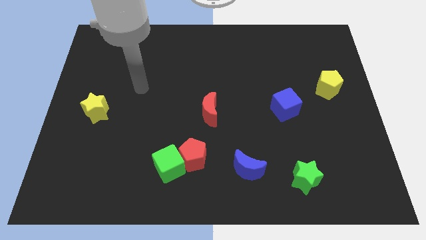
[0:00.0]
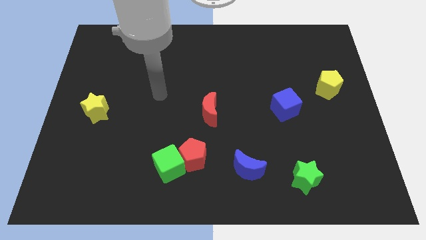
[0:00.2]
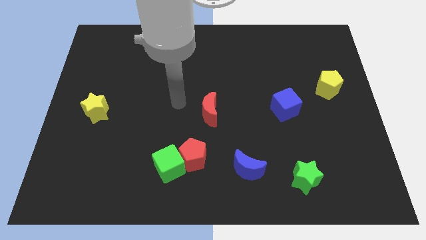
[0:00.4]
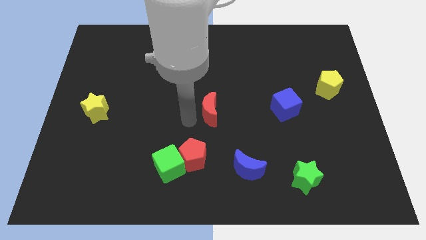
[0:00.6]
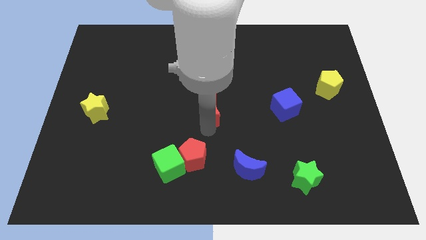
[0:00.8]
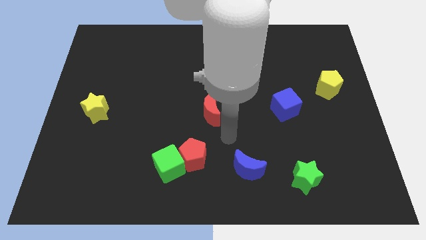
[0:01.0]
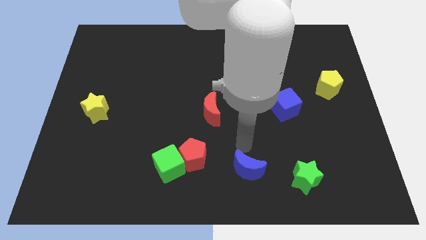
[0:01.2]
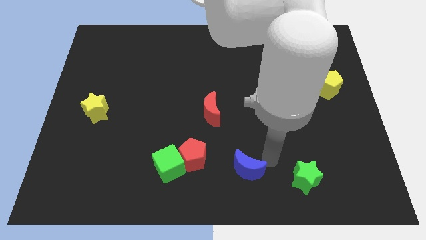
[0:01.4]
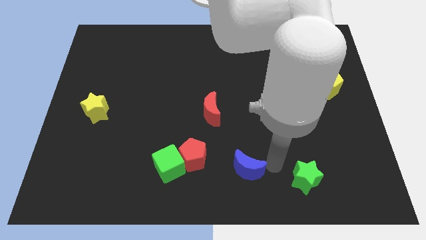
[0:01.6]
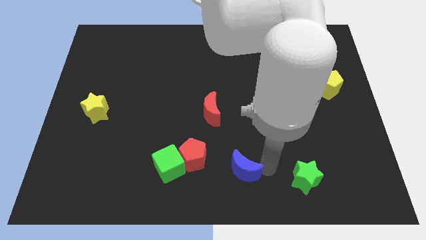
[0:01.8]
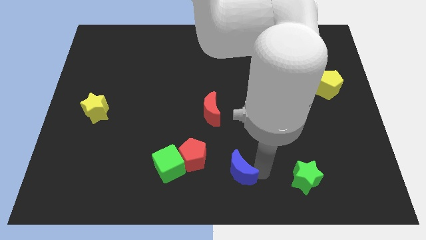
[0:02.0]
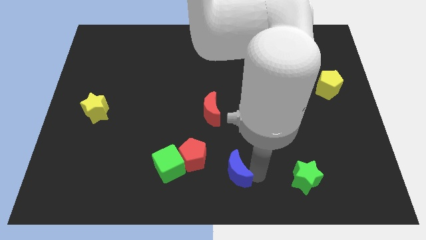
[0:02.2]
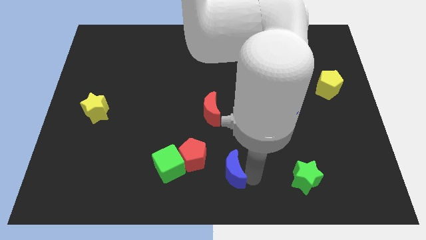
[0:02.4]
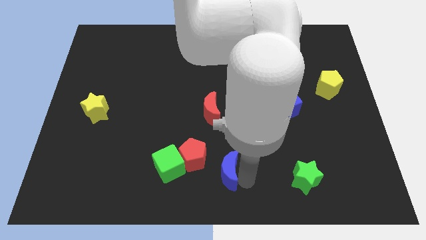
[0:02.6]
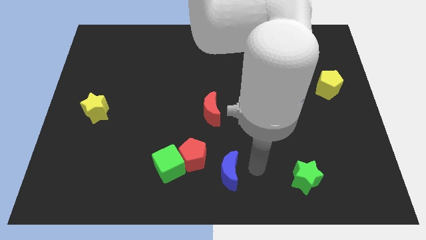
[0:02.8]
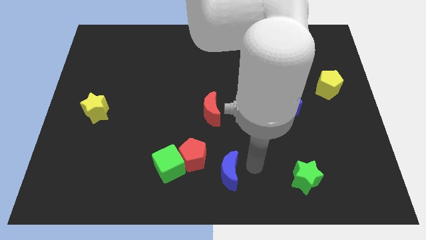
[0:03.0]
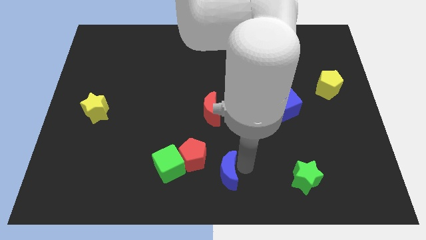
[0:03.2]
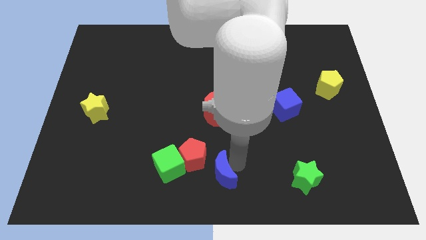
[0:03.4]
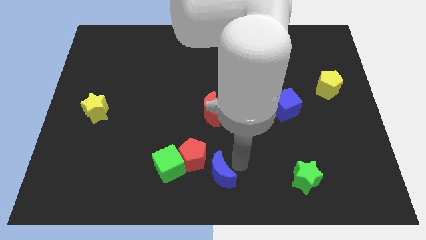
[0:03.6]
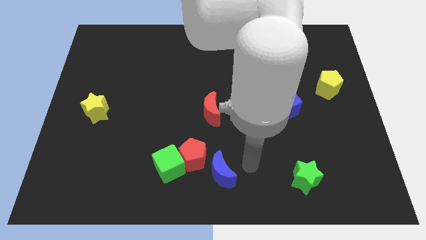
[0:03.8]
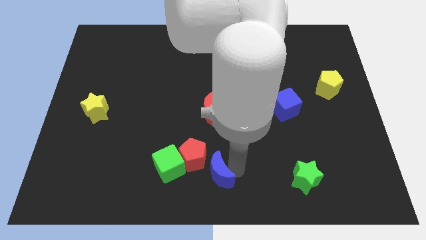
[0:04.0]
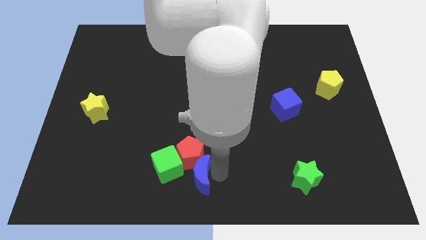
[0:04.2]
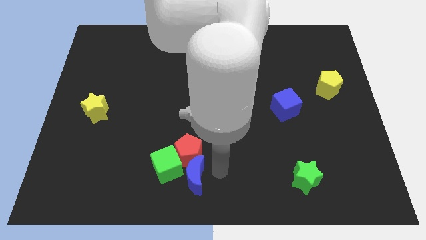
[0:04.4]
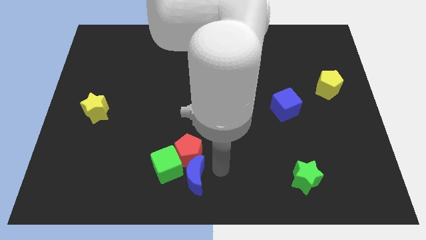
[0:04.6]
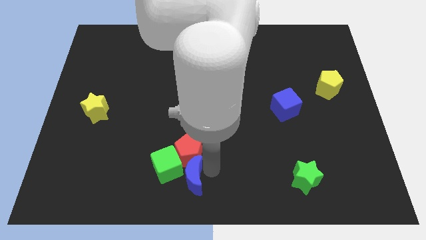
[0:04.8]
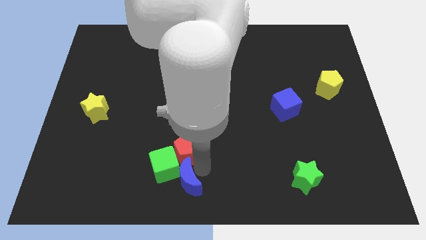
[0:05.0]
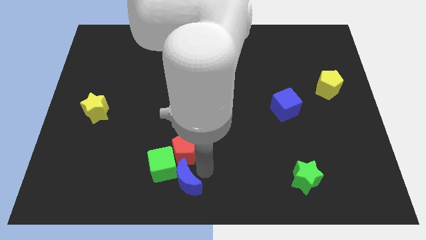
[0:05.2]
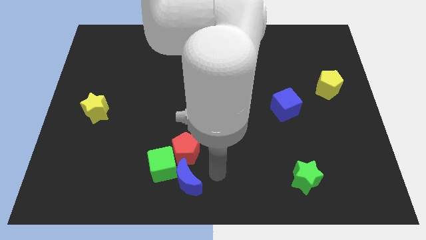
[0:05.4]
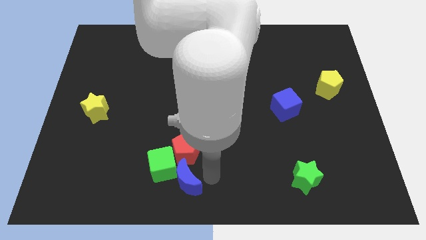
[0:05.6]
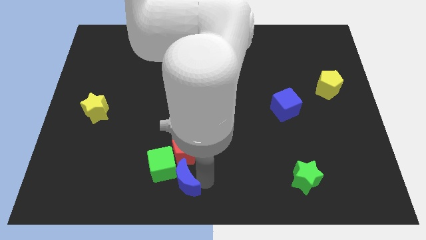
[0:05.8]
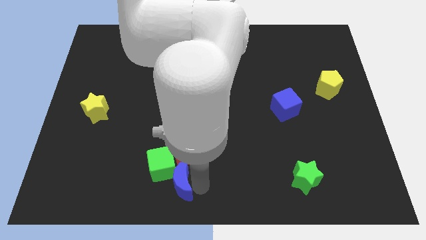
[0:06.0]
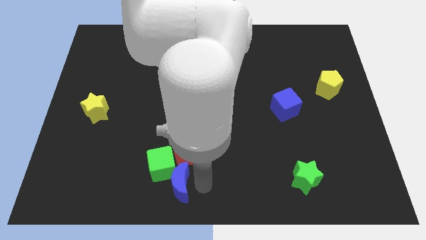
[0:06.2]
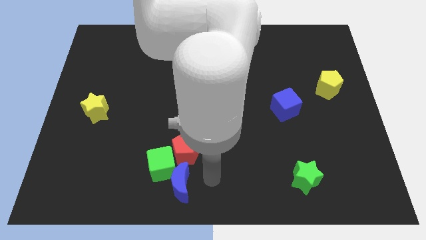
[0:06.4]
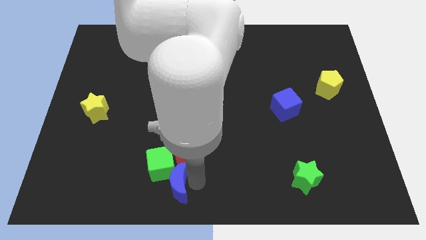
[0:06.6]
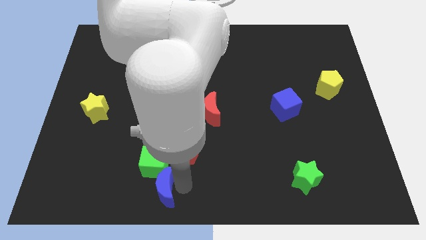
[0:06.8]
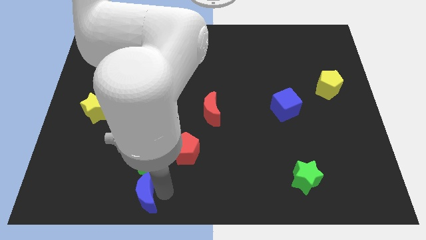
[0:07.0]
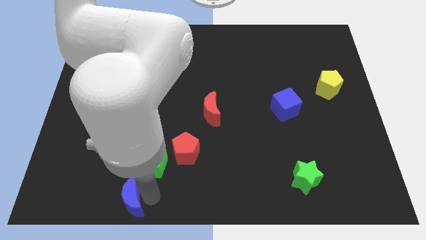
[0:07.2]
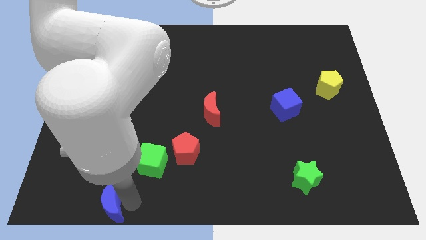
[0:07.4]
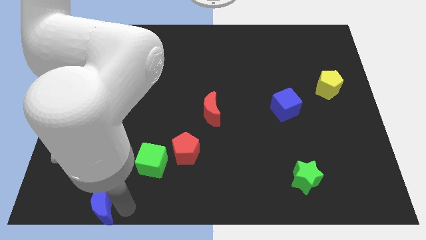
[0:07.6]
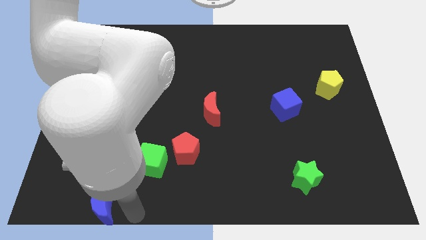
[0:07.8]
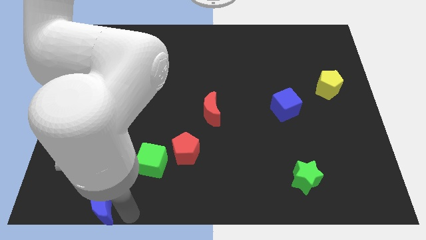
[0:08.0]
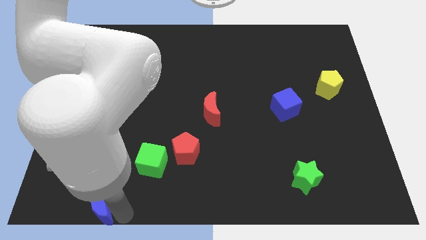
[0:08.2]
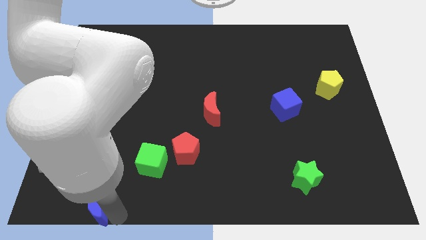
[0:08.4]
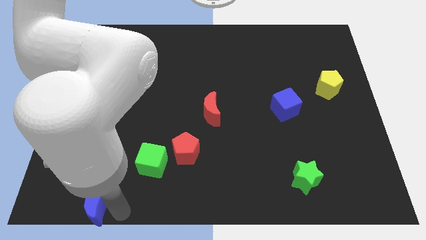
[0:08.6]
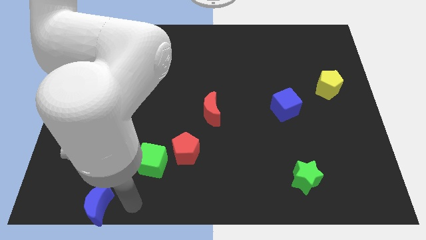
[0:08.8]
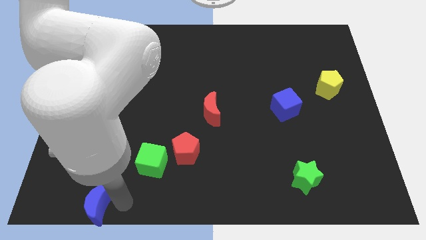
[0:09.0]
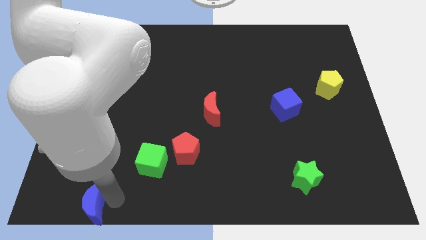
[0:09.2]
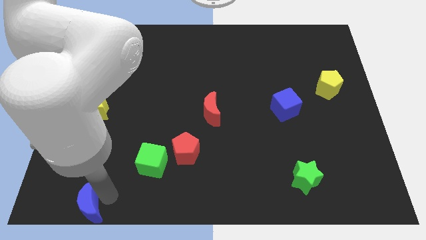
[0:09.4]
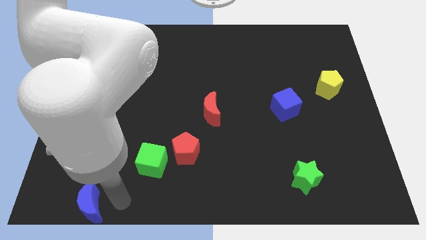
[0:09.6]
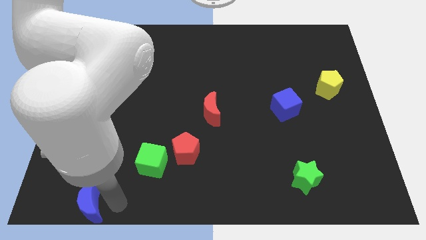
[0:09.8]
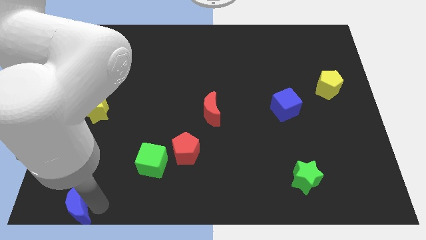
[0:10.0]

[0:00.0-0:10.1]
push the blue moon to the lower left corner

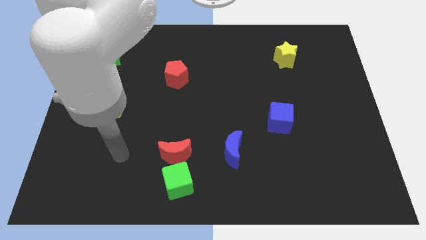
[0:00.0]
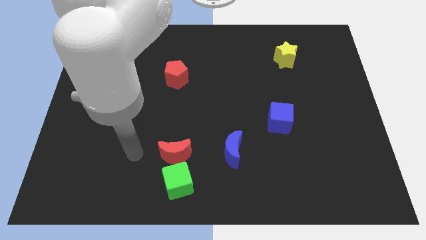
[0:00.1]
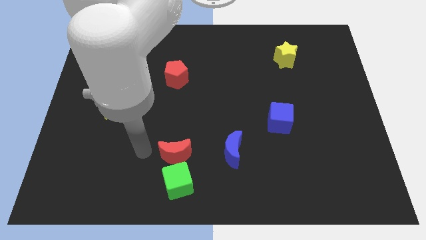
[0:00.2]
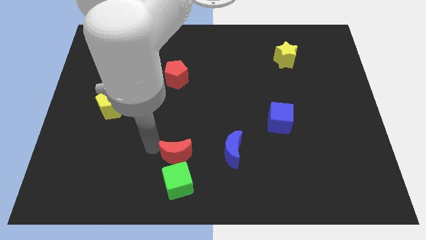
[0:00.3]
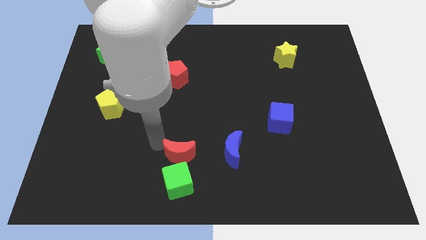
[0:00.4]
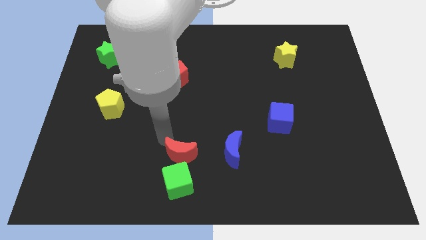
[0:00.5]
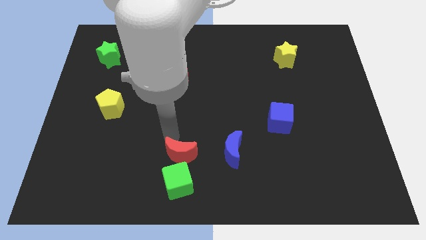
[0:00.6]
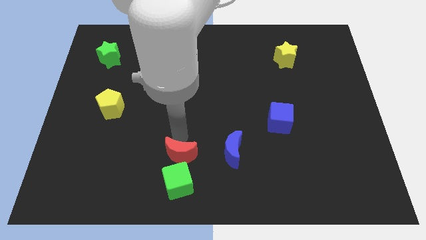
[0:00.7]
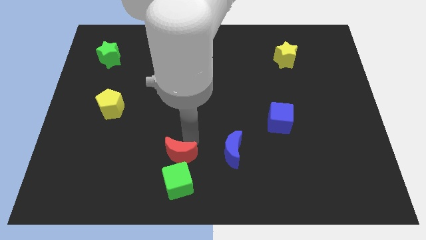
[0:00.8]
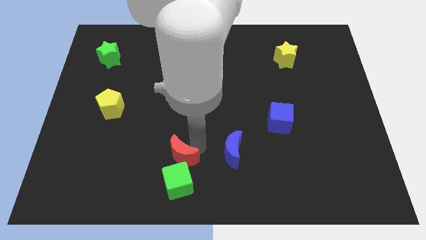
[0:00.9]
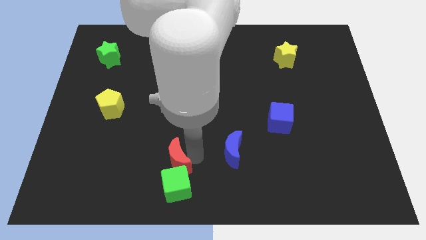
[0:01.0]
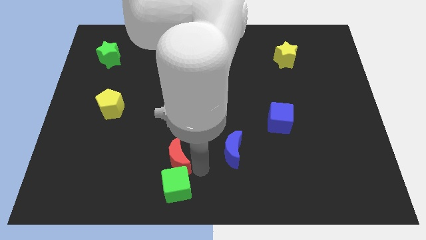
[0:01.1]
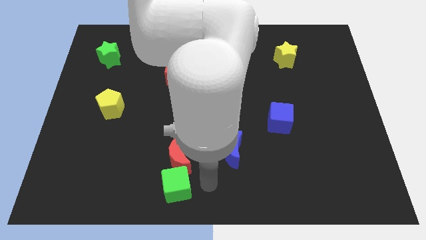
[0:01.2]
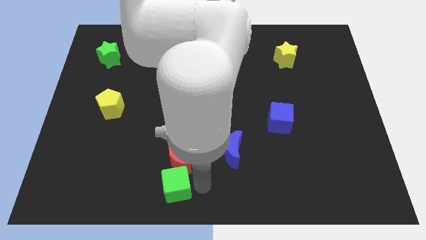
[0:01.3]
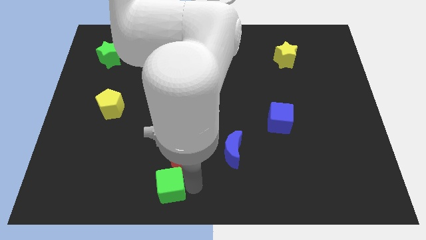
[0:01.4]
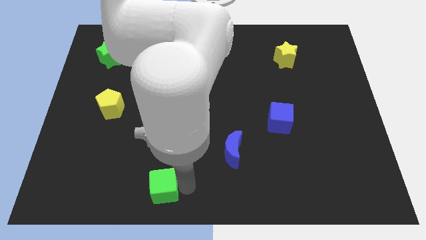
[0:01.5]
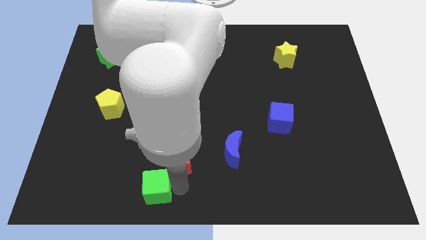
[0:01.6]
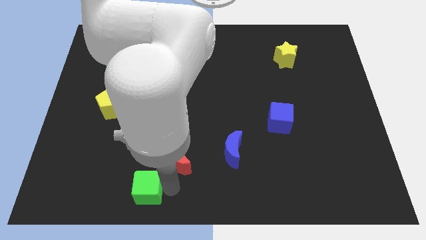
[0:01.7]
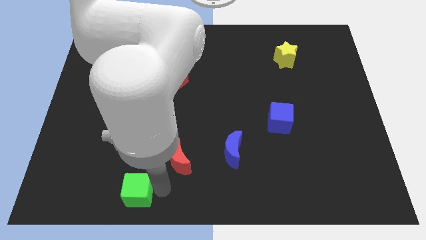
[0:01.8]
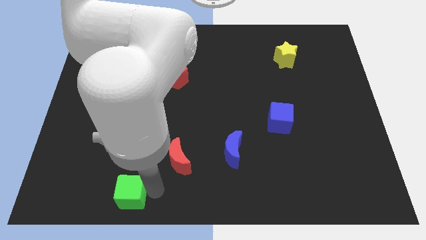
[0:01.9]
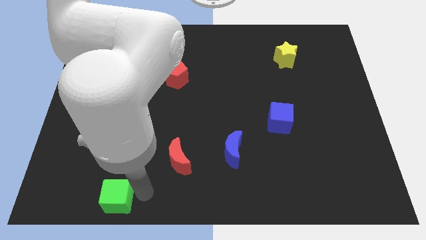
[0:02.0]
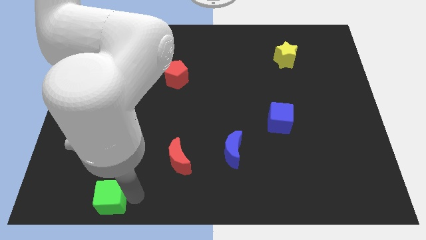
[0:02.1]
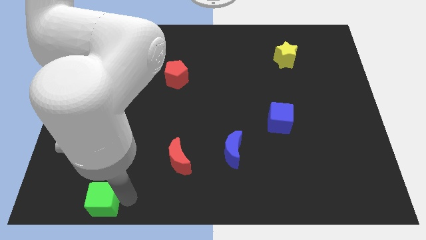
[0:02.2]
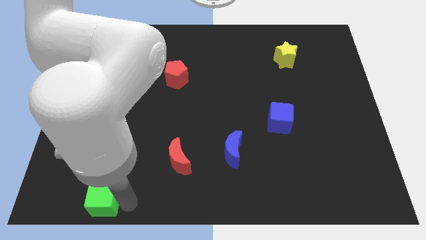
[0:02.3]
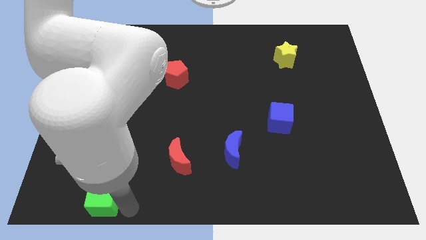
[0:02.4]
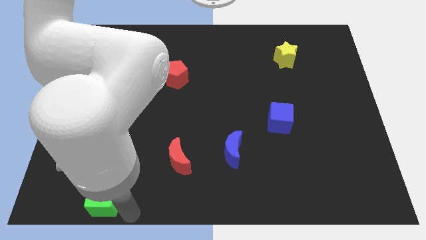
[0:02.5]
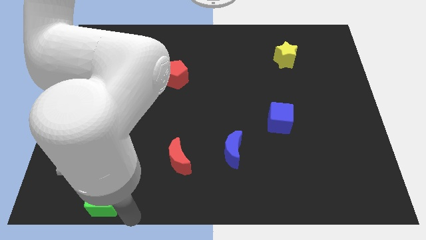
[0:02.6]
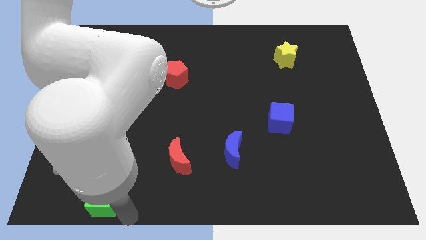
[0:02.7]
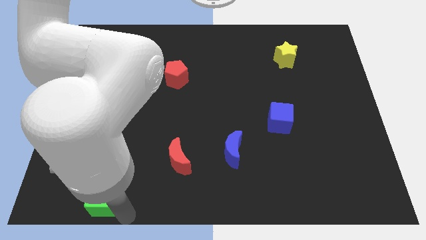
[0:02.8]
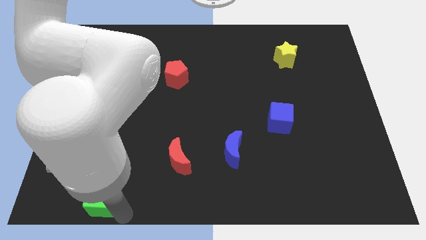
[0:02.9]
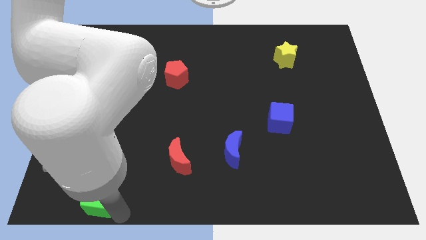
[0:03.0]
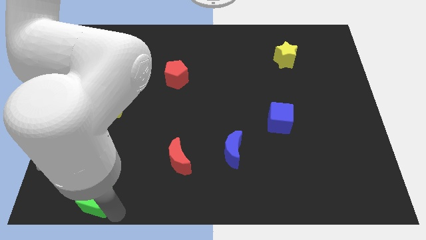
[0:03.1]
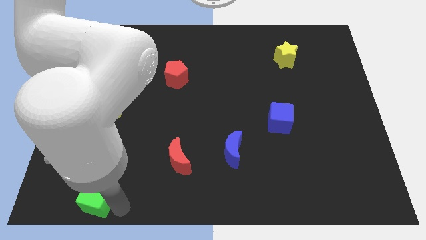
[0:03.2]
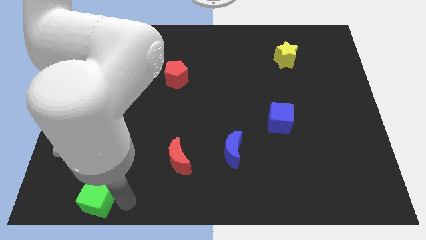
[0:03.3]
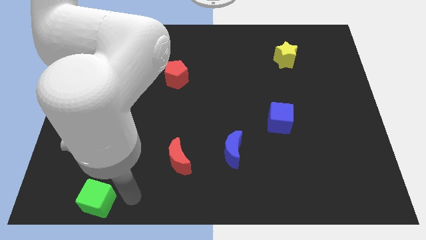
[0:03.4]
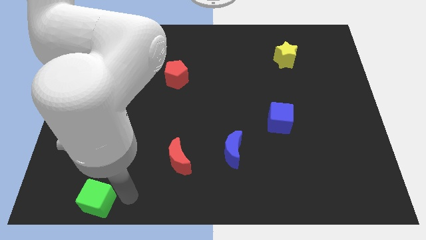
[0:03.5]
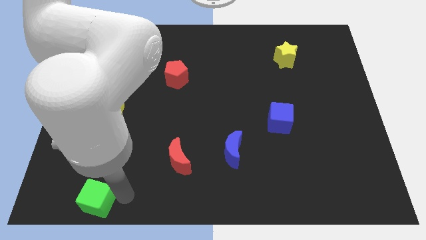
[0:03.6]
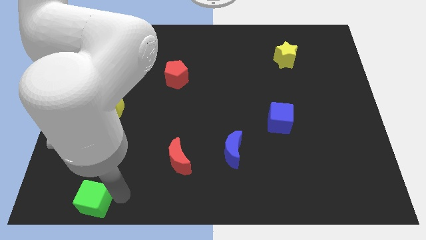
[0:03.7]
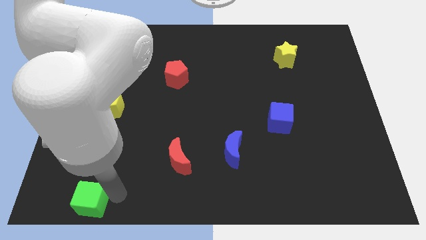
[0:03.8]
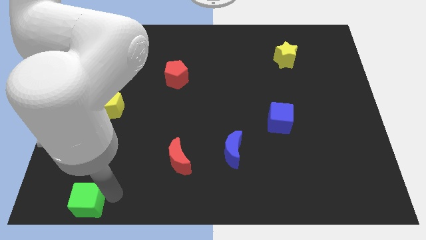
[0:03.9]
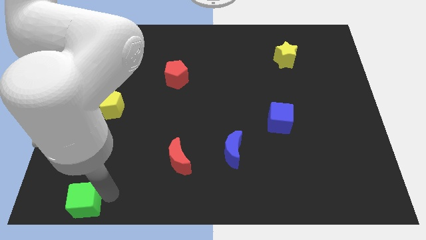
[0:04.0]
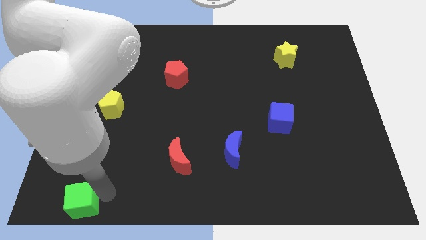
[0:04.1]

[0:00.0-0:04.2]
slide the green cube to the lower left corner
